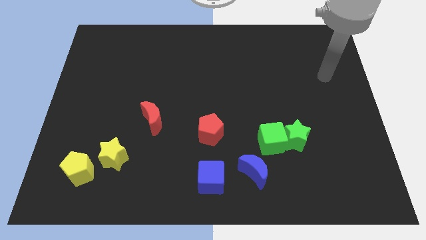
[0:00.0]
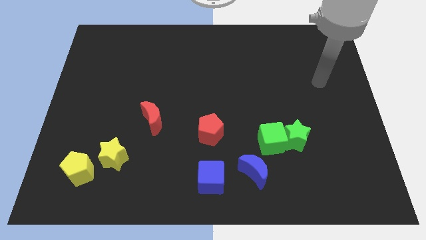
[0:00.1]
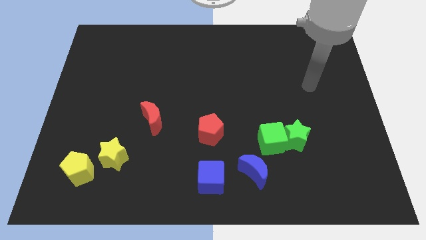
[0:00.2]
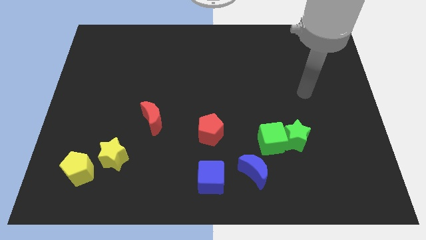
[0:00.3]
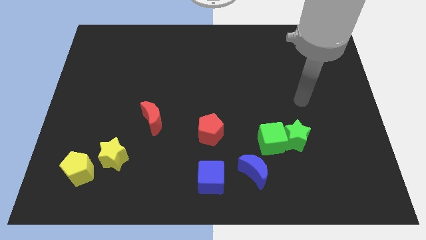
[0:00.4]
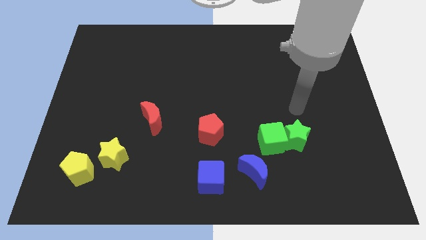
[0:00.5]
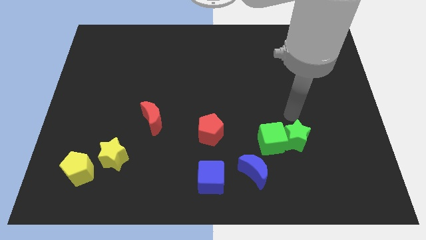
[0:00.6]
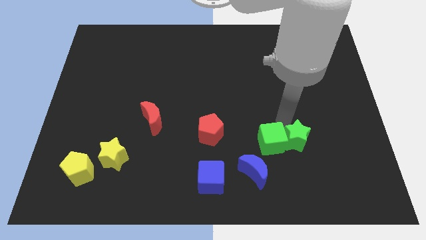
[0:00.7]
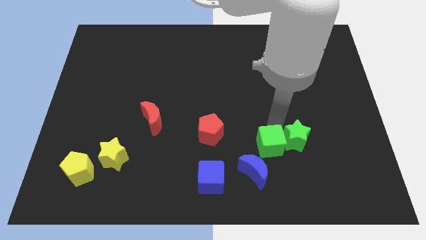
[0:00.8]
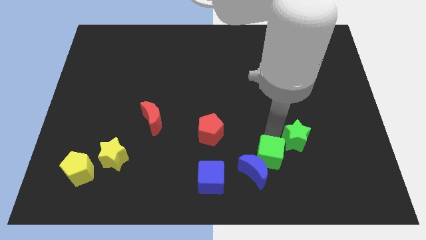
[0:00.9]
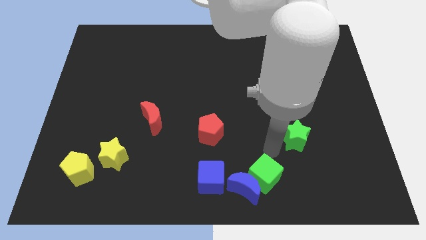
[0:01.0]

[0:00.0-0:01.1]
separate the green star from the green cube

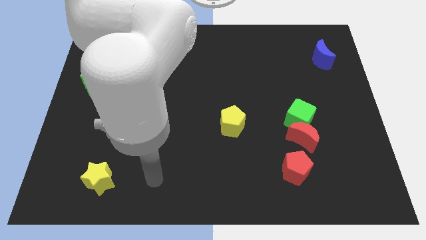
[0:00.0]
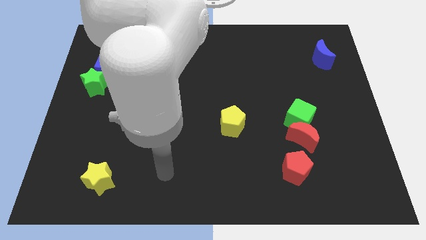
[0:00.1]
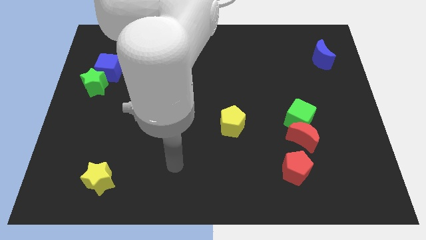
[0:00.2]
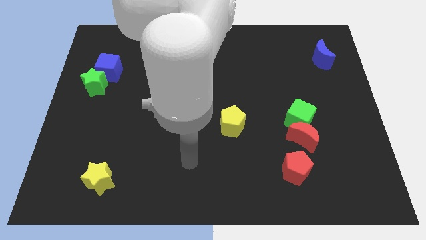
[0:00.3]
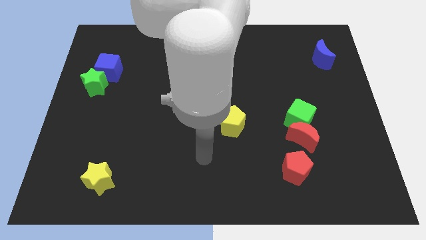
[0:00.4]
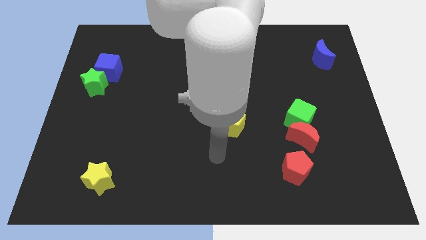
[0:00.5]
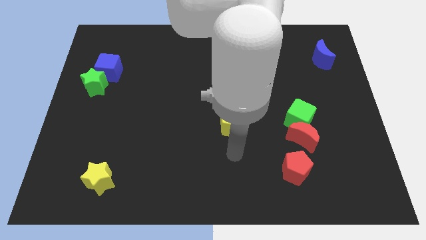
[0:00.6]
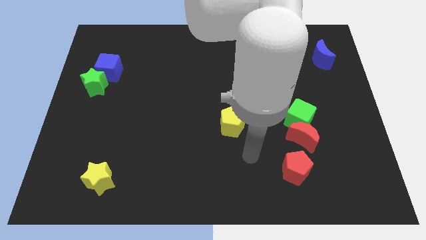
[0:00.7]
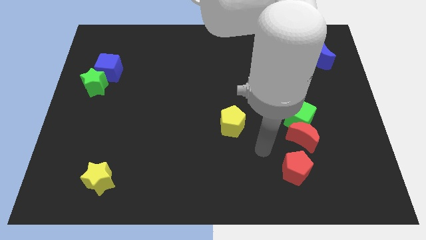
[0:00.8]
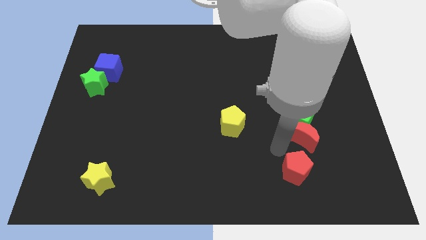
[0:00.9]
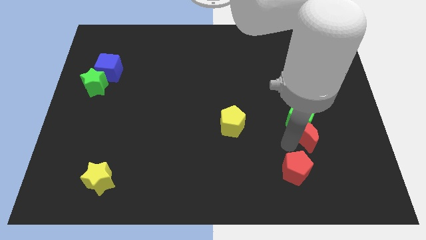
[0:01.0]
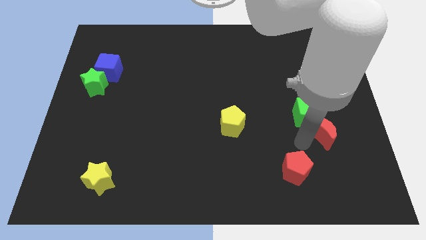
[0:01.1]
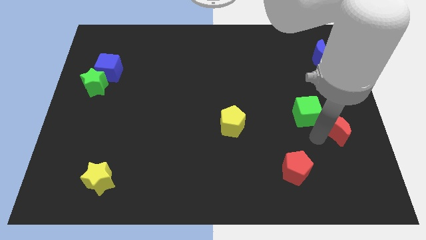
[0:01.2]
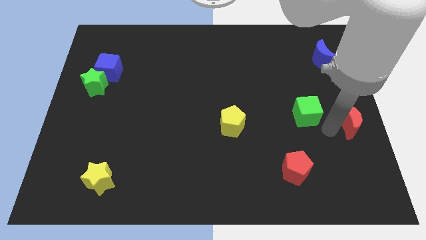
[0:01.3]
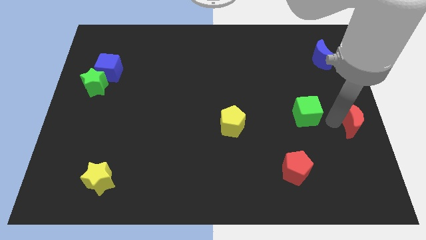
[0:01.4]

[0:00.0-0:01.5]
separate the green cube from the red moon

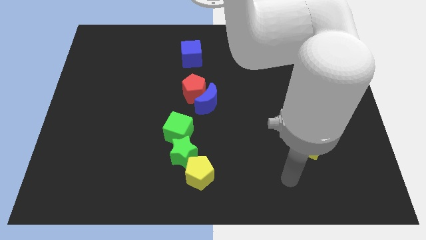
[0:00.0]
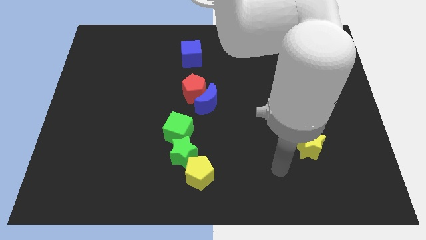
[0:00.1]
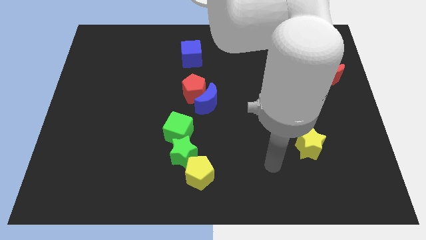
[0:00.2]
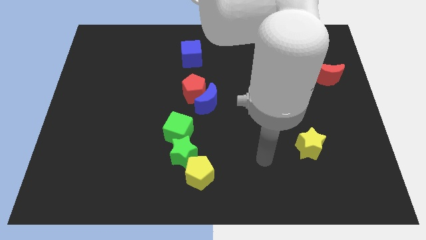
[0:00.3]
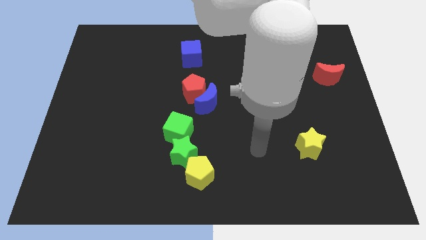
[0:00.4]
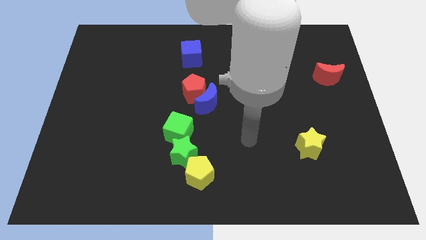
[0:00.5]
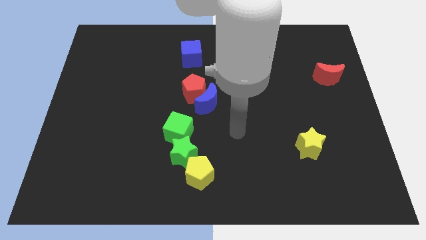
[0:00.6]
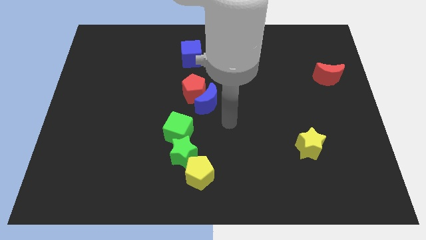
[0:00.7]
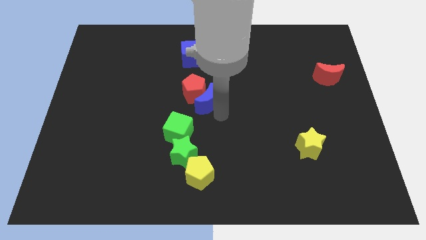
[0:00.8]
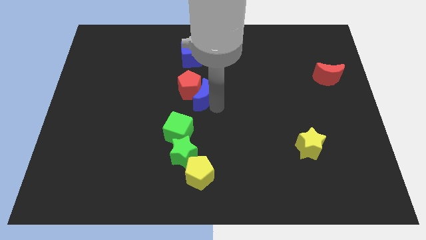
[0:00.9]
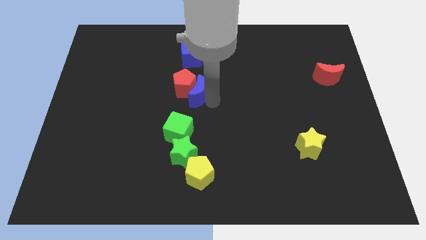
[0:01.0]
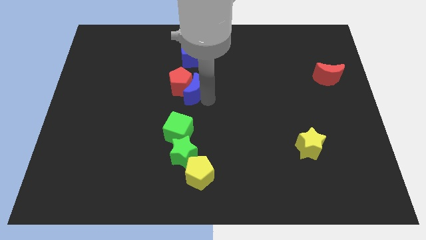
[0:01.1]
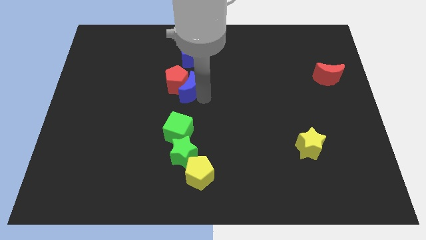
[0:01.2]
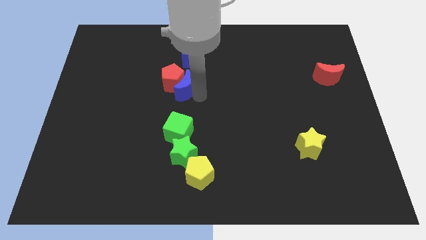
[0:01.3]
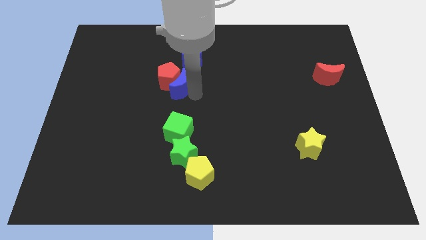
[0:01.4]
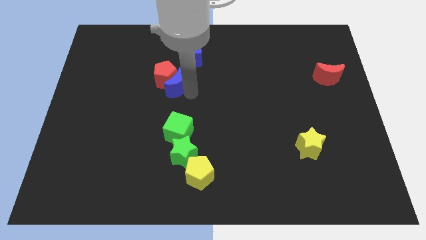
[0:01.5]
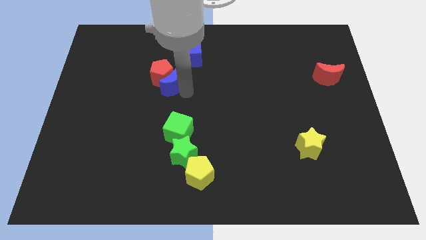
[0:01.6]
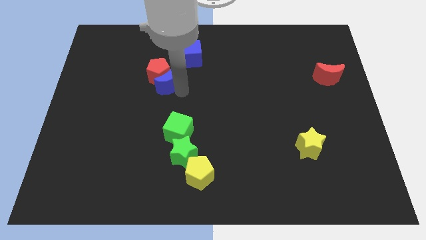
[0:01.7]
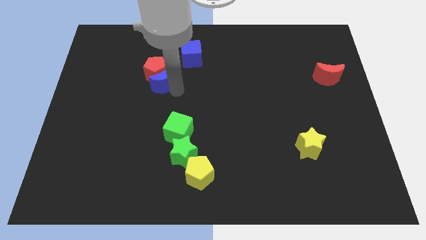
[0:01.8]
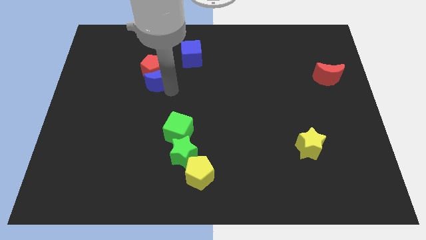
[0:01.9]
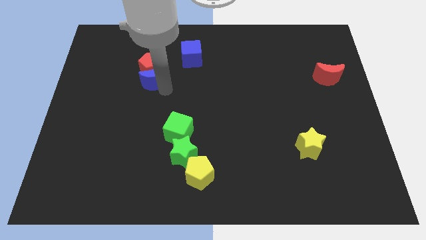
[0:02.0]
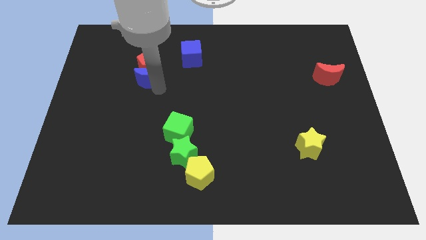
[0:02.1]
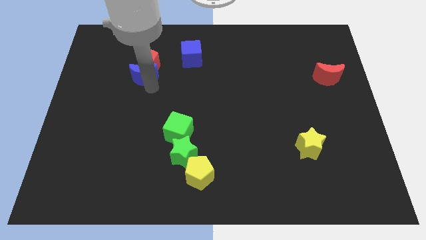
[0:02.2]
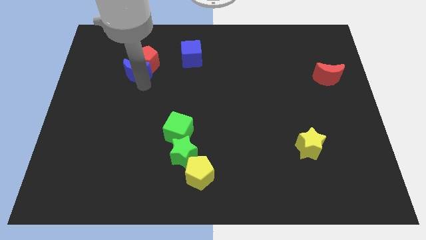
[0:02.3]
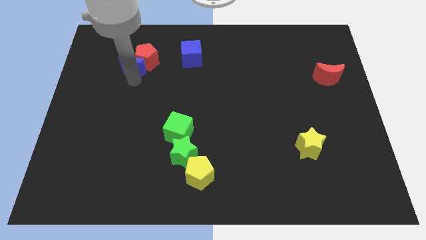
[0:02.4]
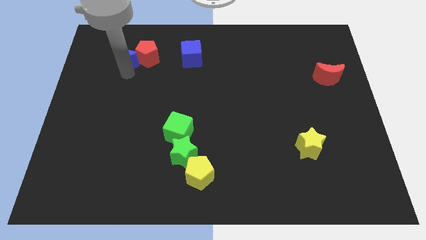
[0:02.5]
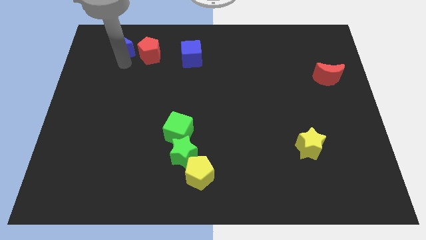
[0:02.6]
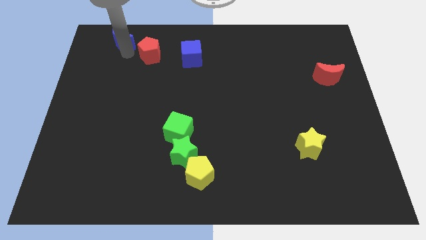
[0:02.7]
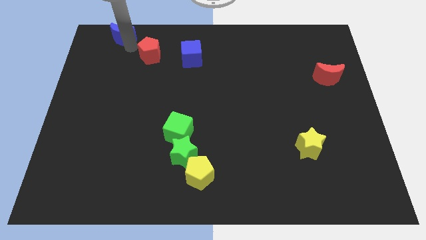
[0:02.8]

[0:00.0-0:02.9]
pull the red pentagon apart from the blue moon

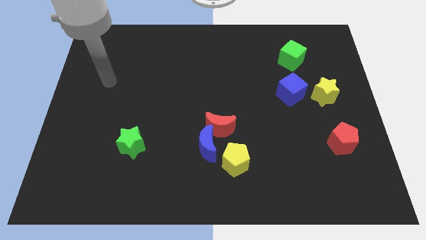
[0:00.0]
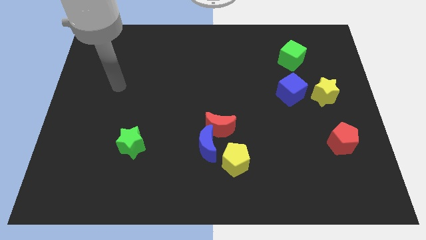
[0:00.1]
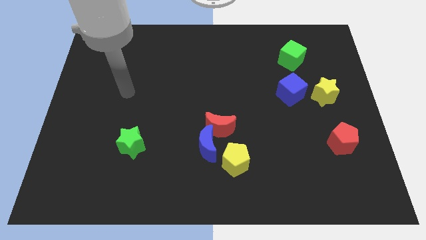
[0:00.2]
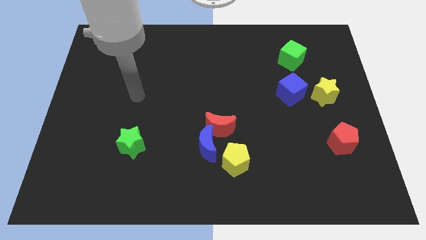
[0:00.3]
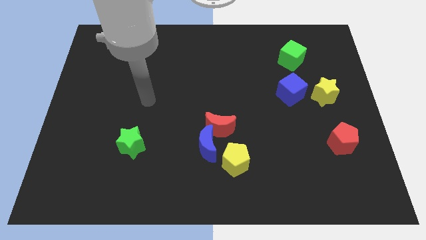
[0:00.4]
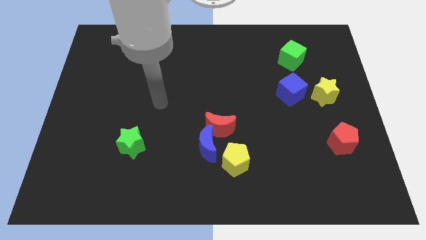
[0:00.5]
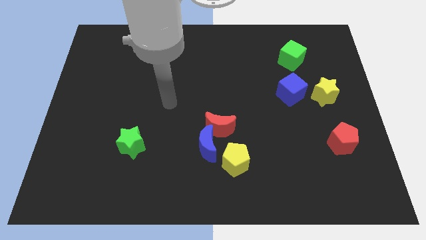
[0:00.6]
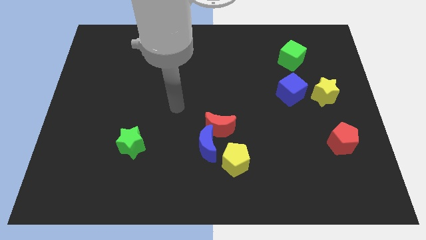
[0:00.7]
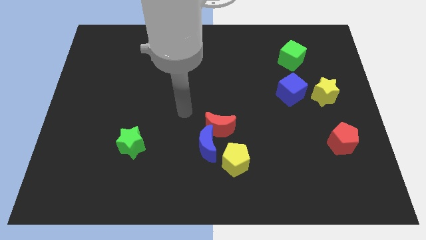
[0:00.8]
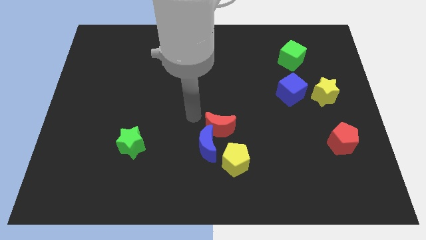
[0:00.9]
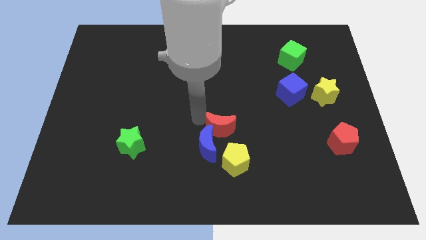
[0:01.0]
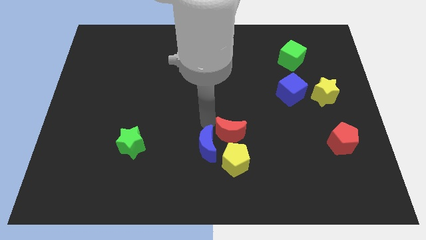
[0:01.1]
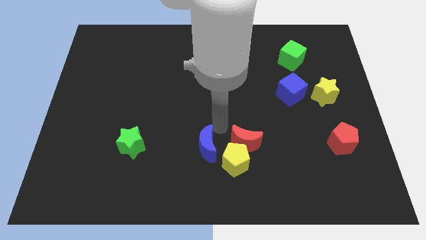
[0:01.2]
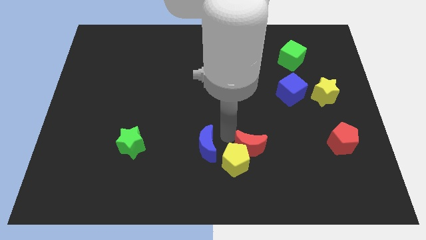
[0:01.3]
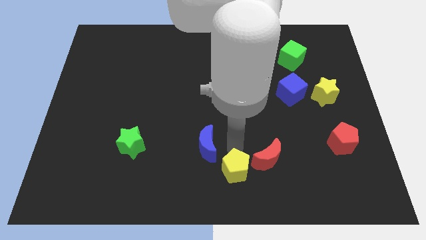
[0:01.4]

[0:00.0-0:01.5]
move the blue moon away from the red moon and yellow pentagon

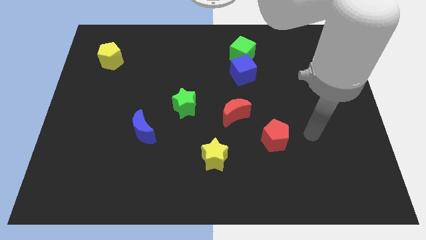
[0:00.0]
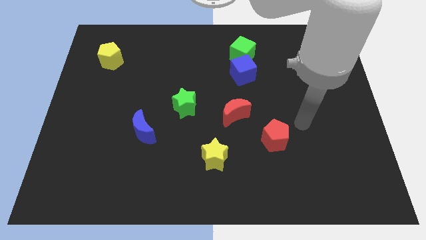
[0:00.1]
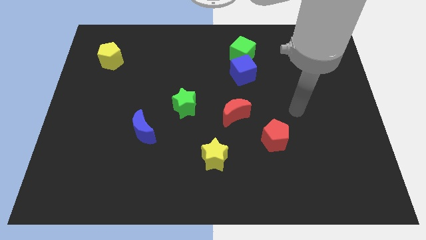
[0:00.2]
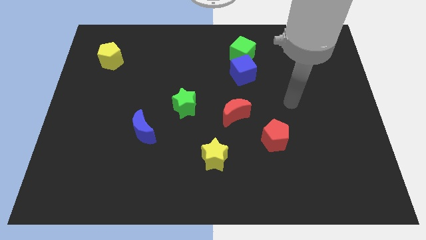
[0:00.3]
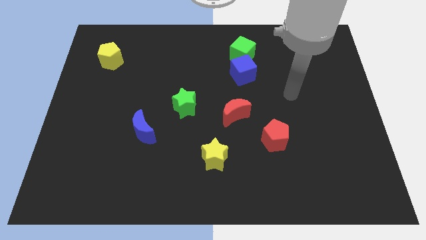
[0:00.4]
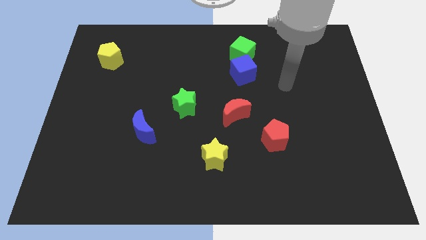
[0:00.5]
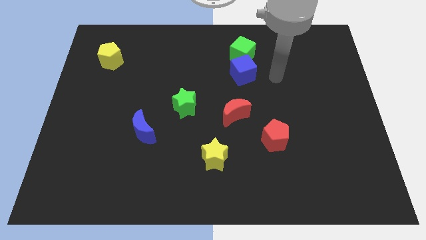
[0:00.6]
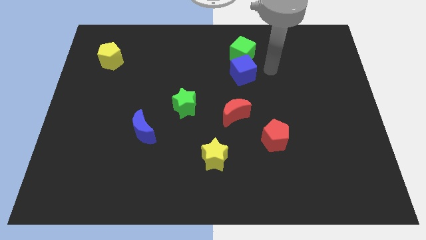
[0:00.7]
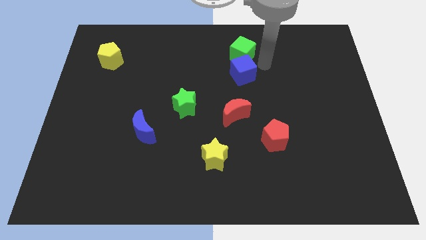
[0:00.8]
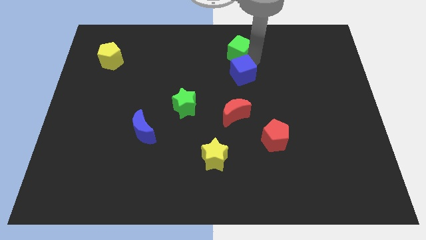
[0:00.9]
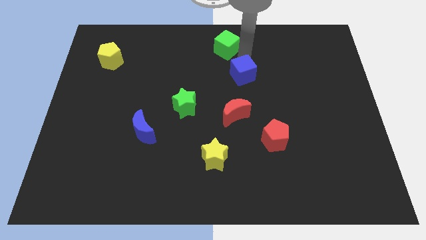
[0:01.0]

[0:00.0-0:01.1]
separate the blue cube from the green cube

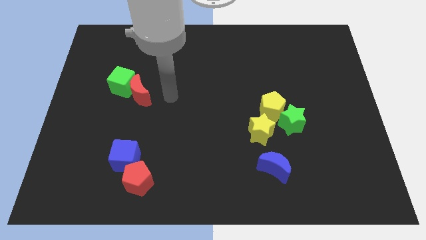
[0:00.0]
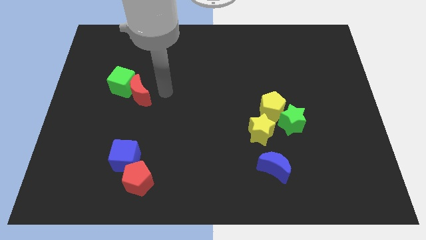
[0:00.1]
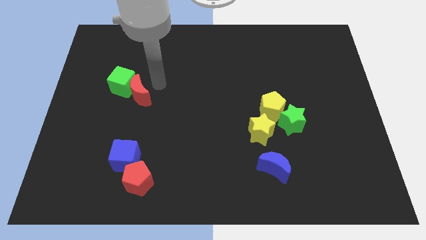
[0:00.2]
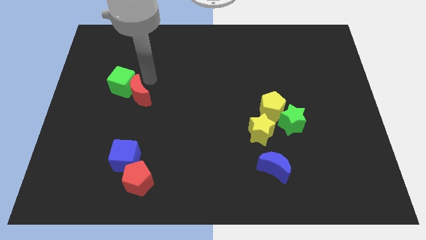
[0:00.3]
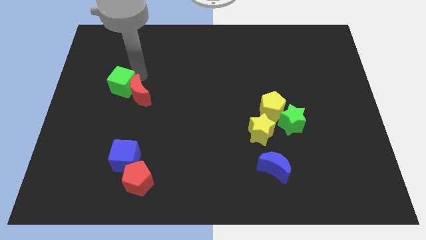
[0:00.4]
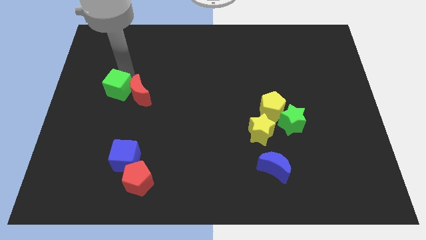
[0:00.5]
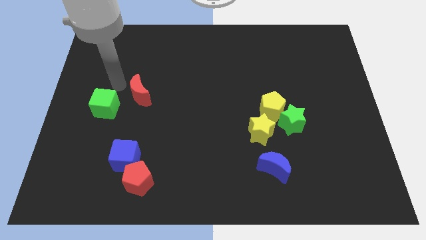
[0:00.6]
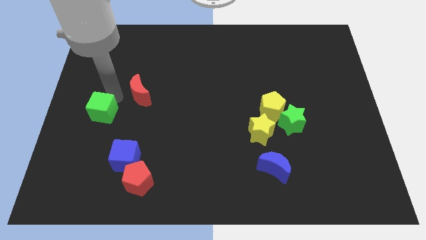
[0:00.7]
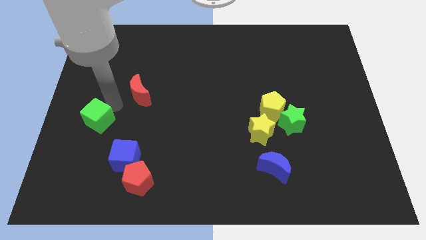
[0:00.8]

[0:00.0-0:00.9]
separate the red moon from the green cube

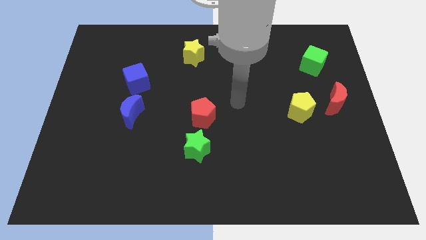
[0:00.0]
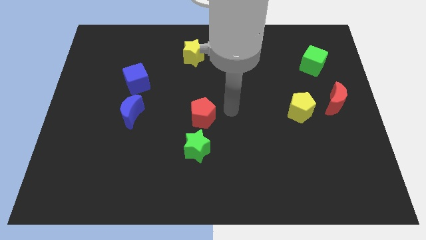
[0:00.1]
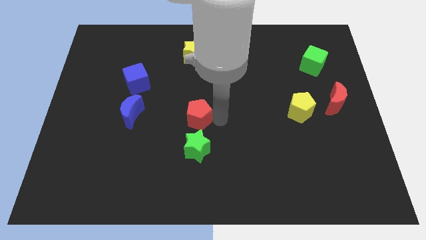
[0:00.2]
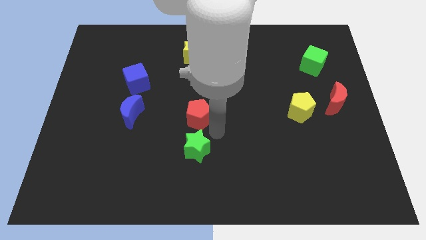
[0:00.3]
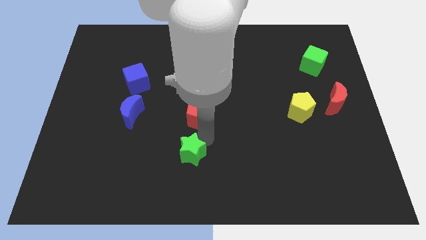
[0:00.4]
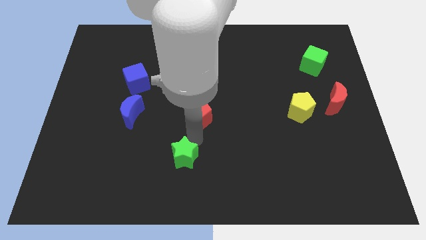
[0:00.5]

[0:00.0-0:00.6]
separate the red pentagon from the green star
